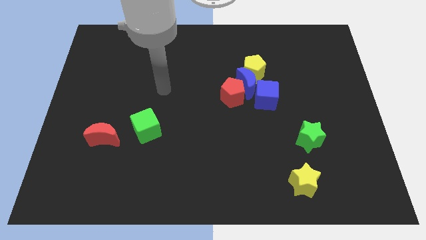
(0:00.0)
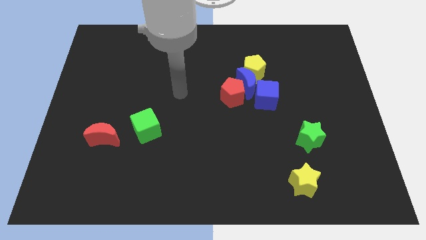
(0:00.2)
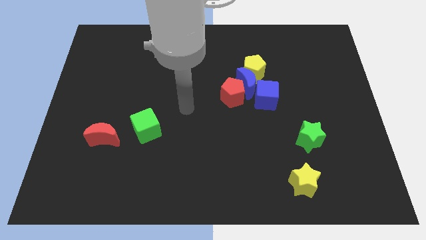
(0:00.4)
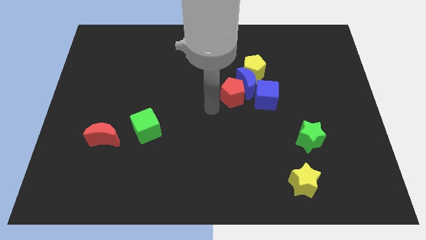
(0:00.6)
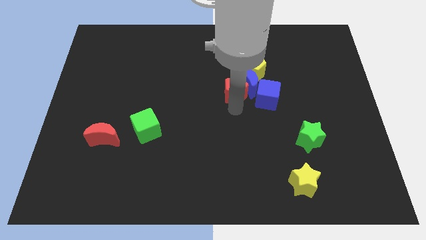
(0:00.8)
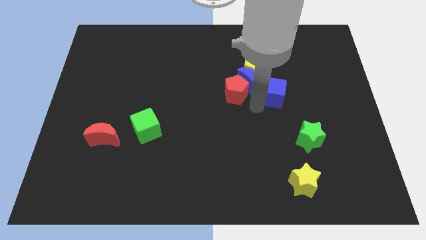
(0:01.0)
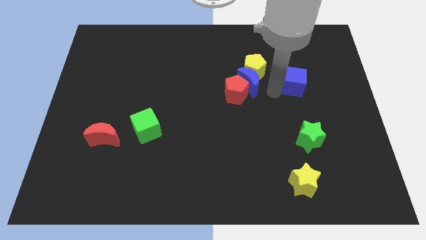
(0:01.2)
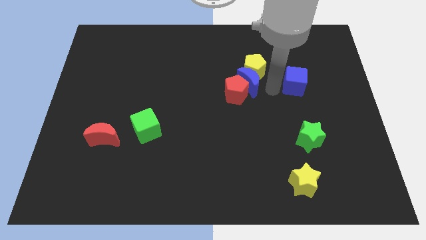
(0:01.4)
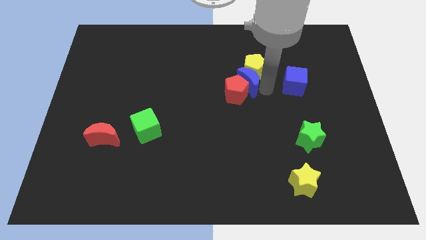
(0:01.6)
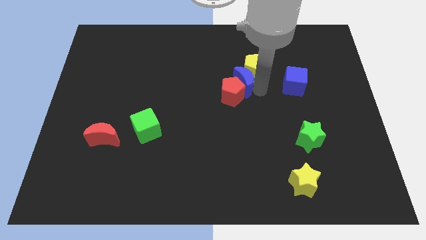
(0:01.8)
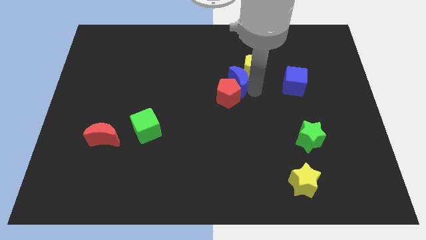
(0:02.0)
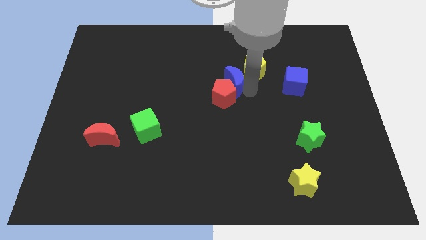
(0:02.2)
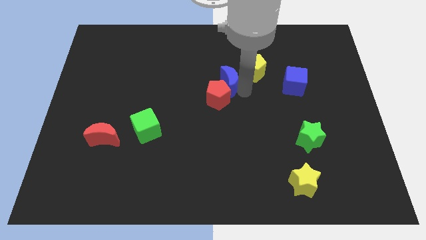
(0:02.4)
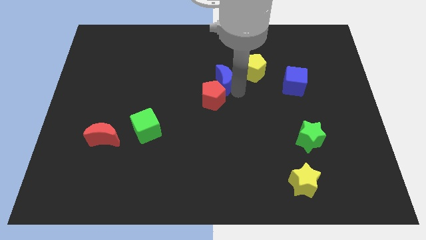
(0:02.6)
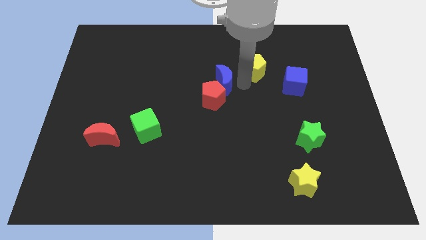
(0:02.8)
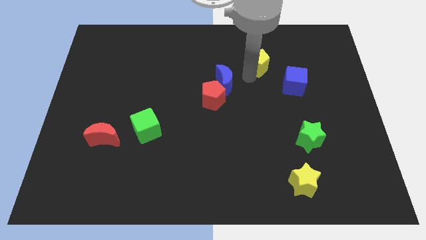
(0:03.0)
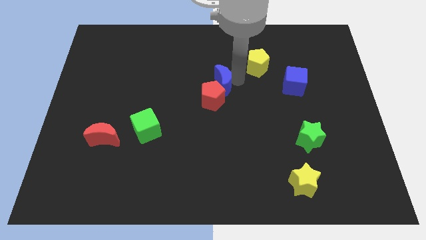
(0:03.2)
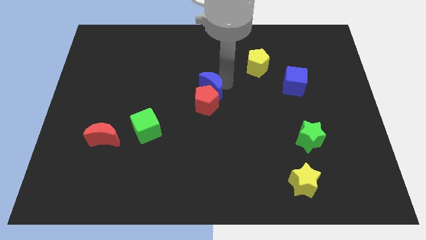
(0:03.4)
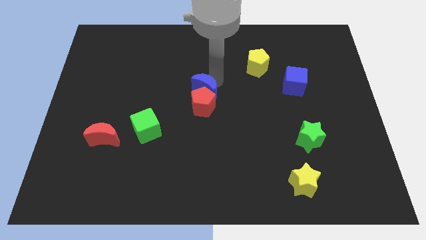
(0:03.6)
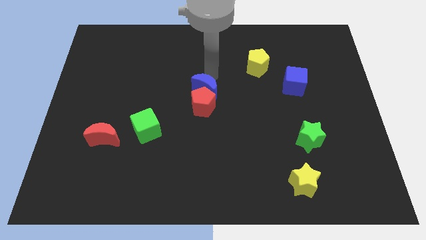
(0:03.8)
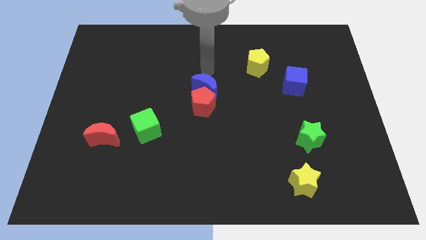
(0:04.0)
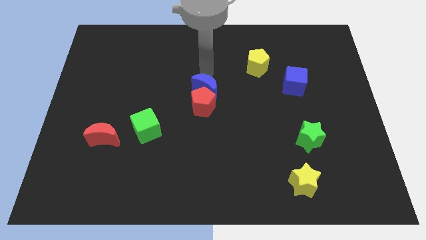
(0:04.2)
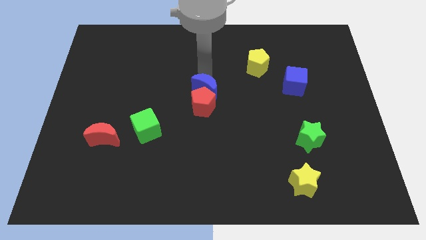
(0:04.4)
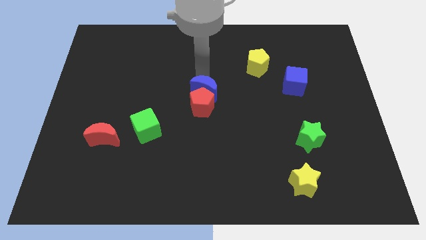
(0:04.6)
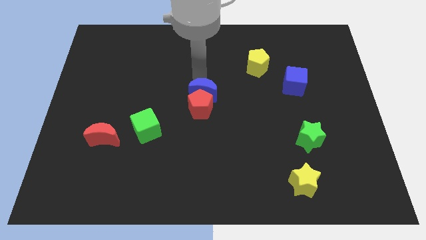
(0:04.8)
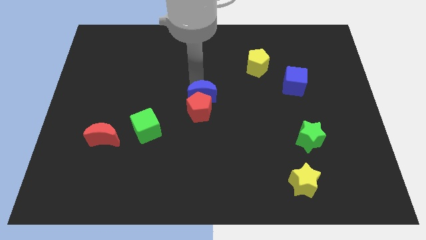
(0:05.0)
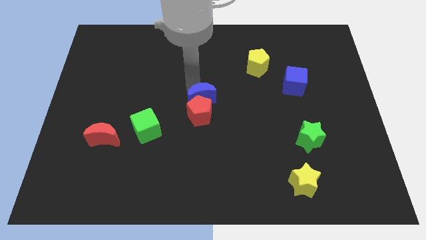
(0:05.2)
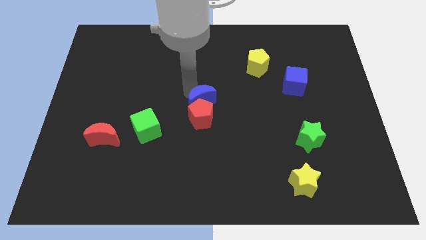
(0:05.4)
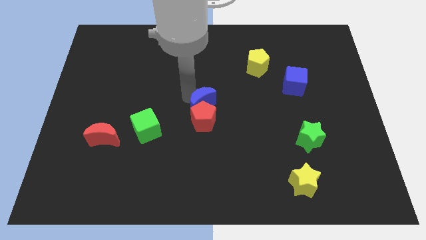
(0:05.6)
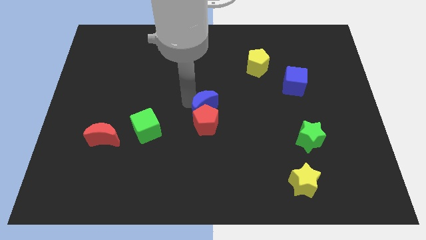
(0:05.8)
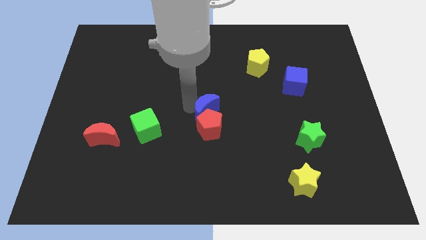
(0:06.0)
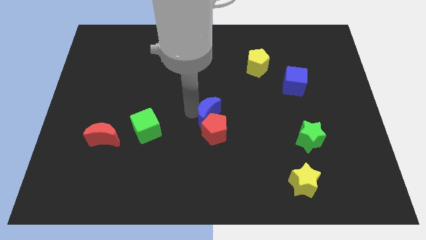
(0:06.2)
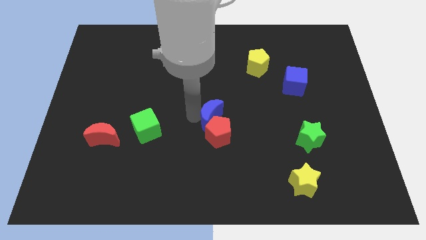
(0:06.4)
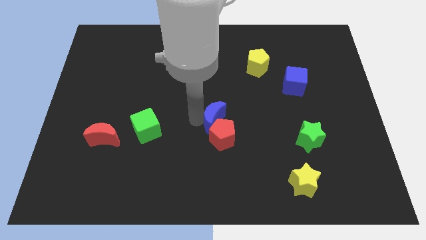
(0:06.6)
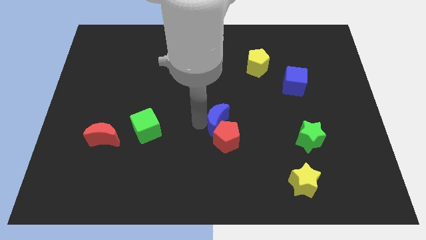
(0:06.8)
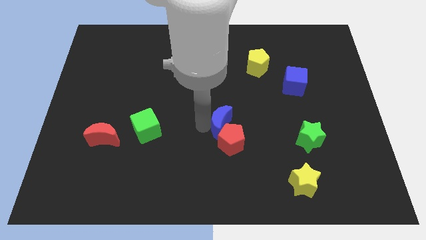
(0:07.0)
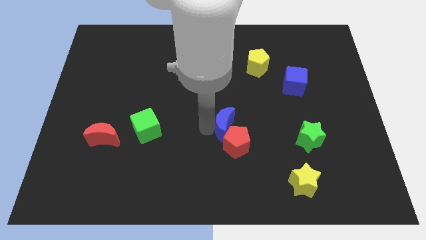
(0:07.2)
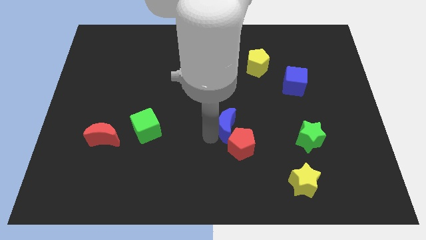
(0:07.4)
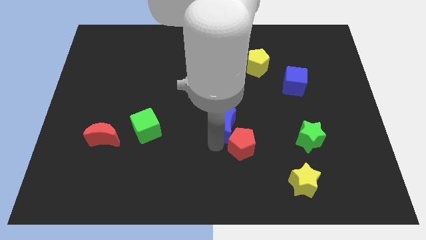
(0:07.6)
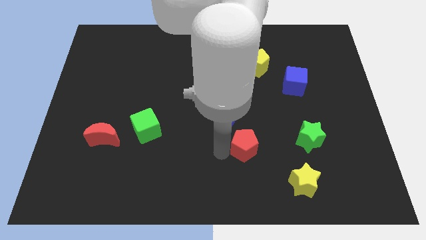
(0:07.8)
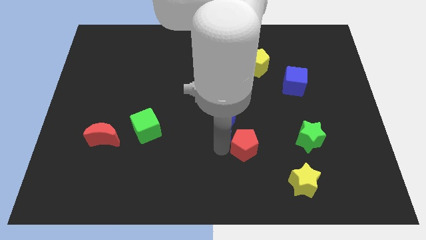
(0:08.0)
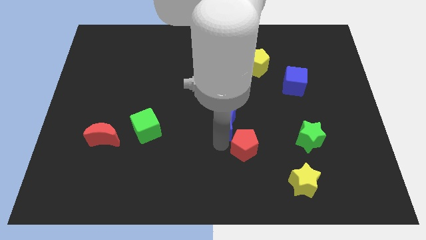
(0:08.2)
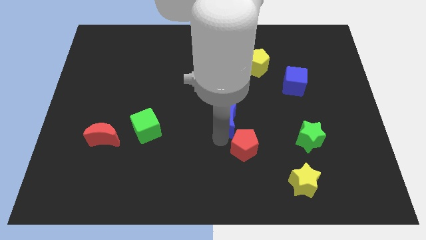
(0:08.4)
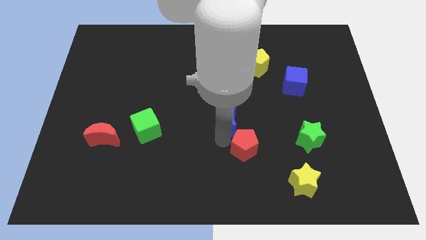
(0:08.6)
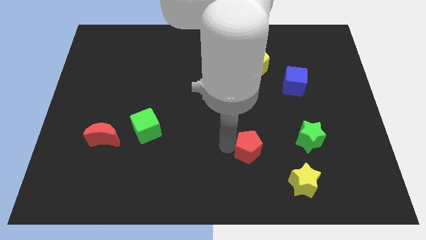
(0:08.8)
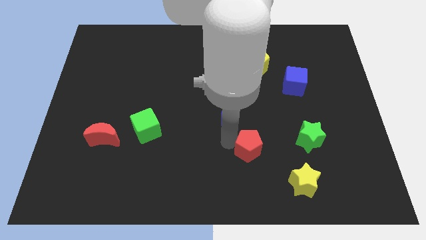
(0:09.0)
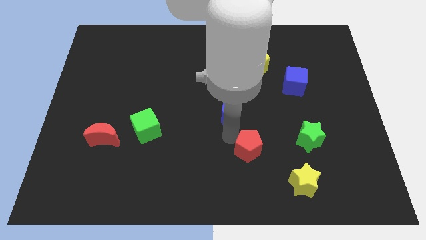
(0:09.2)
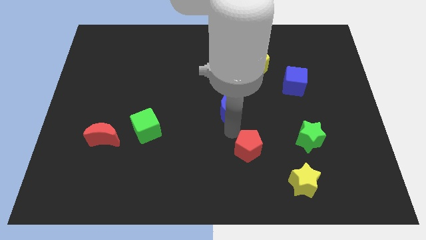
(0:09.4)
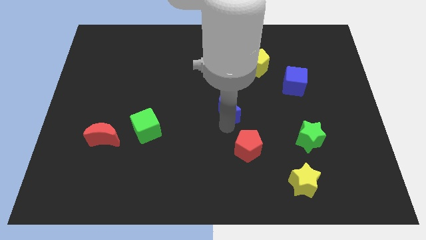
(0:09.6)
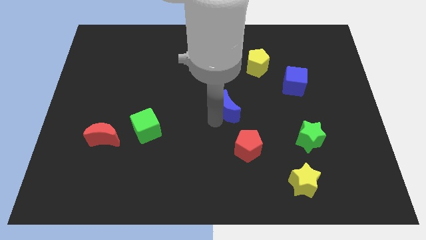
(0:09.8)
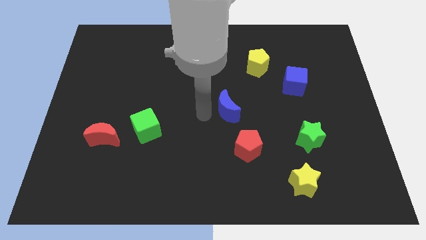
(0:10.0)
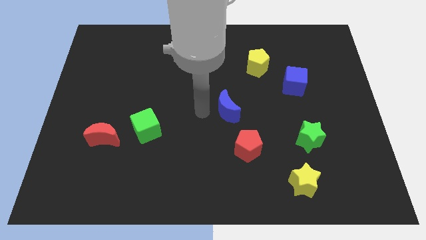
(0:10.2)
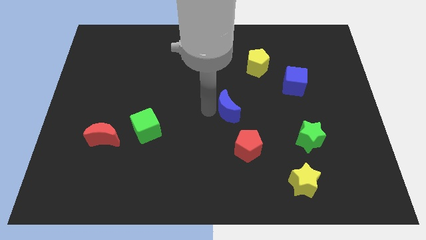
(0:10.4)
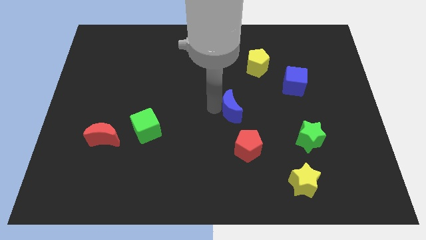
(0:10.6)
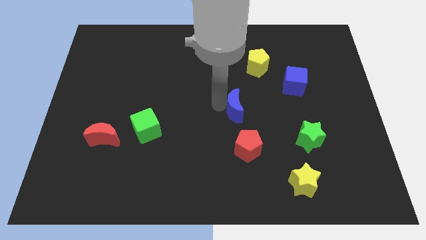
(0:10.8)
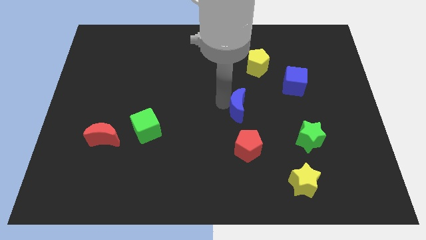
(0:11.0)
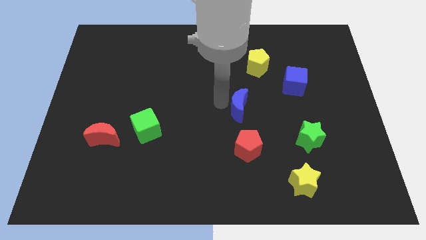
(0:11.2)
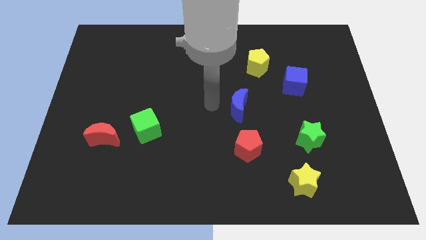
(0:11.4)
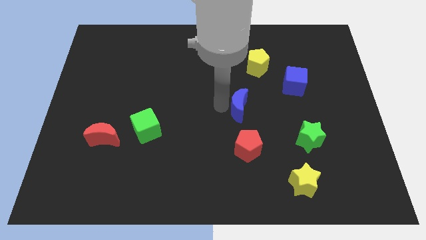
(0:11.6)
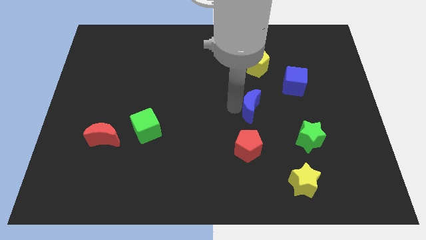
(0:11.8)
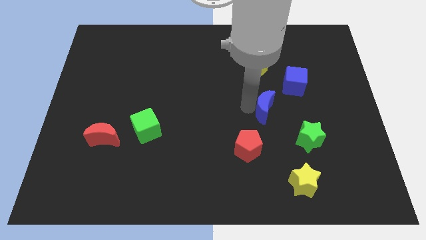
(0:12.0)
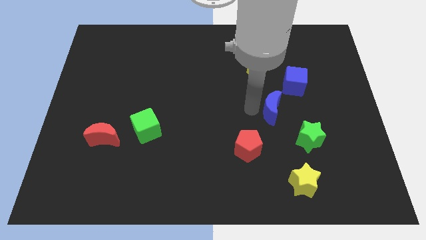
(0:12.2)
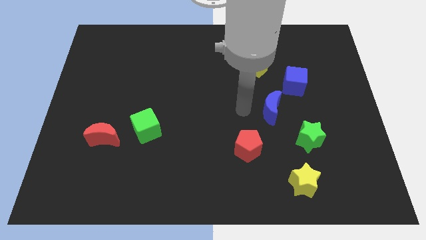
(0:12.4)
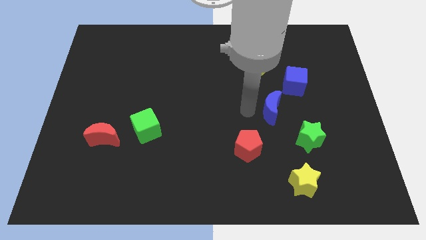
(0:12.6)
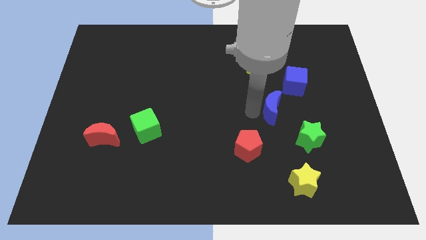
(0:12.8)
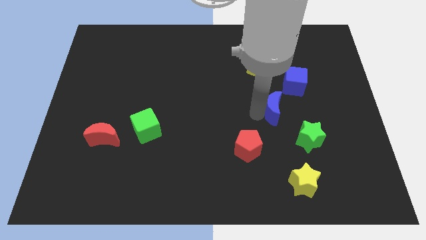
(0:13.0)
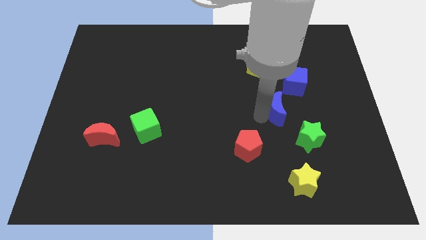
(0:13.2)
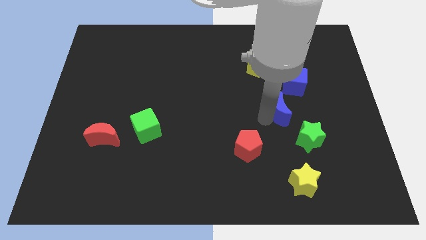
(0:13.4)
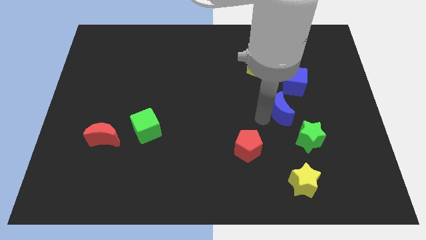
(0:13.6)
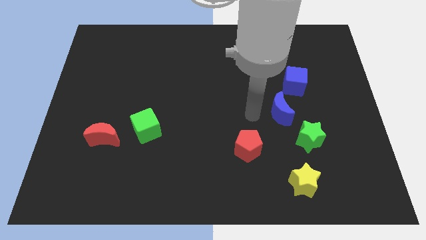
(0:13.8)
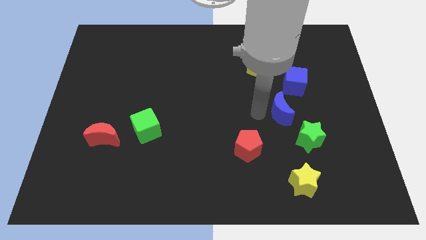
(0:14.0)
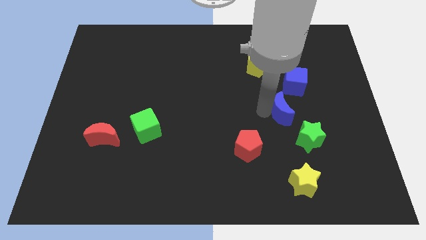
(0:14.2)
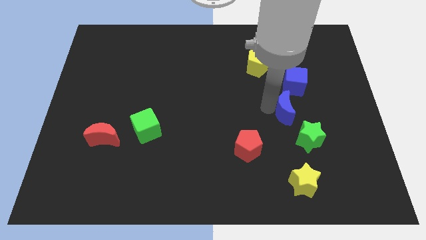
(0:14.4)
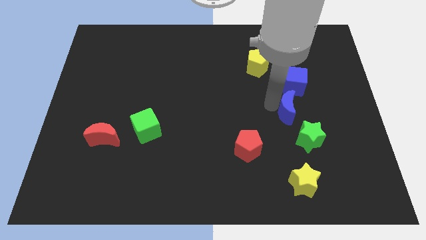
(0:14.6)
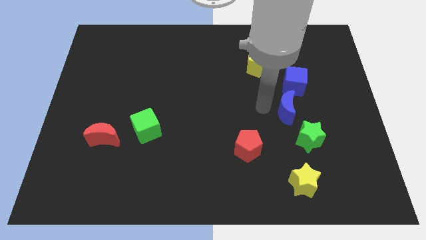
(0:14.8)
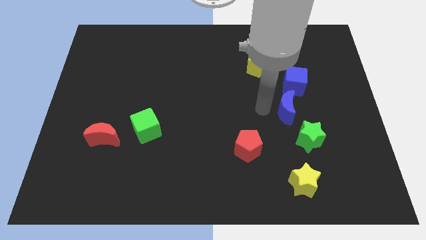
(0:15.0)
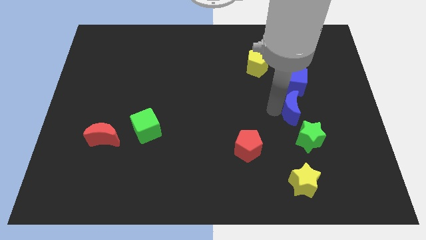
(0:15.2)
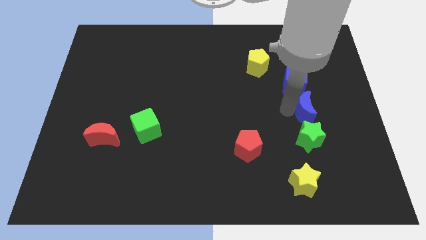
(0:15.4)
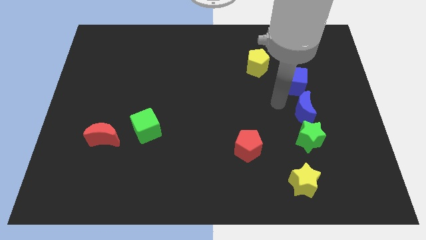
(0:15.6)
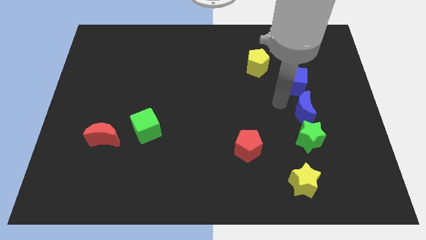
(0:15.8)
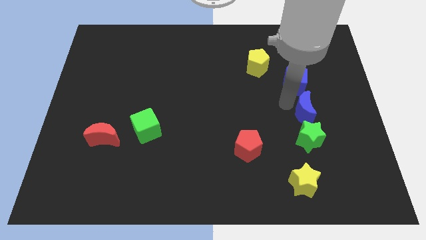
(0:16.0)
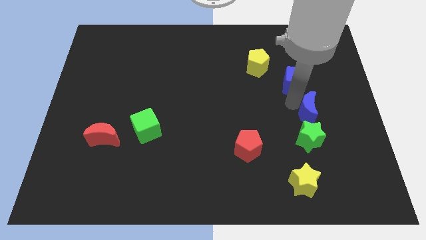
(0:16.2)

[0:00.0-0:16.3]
put the blue moon to the top right side of the green star
